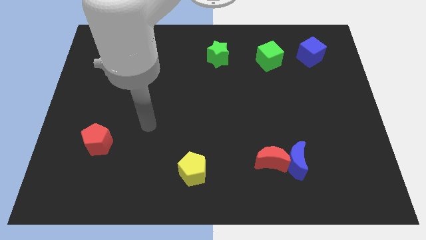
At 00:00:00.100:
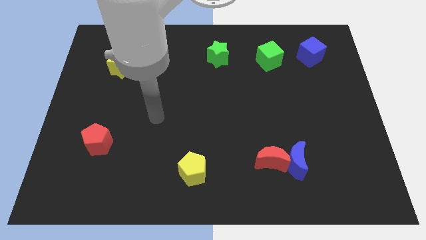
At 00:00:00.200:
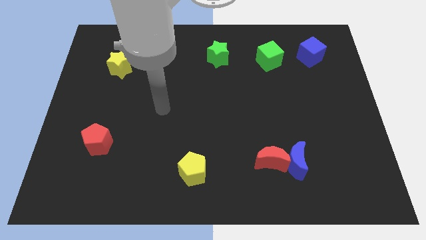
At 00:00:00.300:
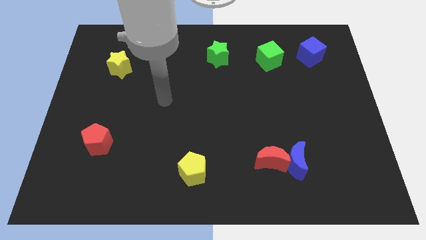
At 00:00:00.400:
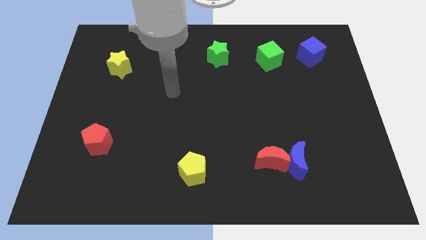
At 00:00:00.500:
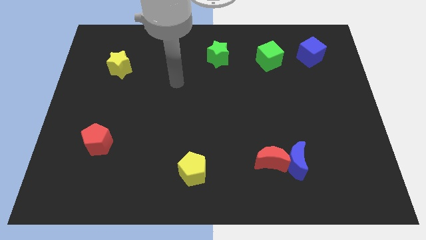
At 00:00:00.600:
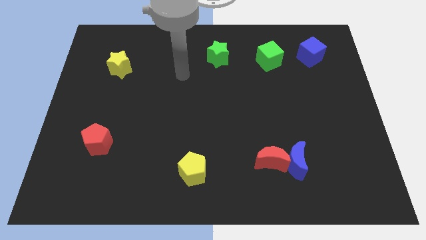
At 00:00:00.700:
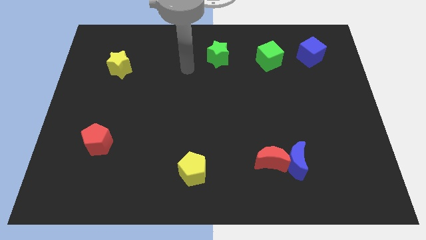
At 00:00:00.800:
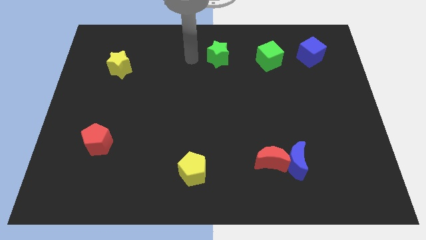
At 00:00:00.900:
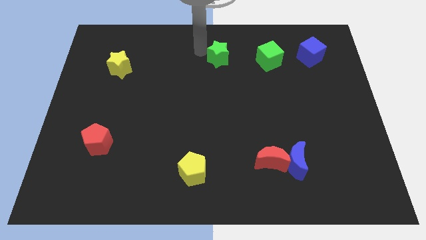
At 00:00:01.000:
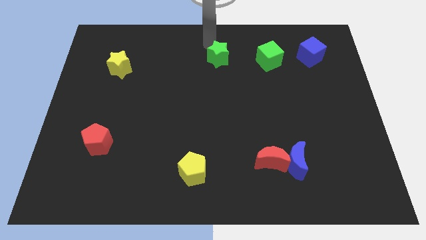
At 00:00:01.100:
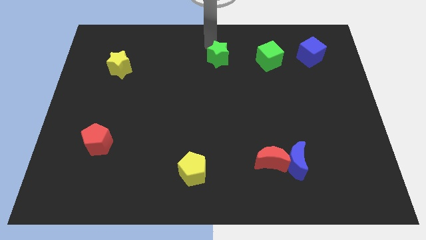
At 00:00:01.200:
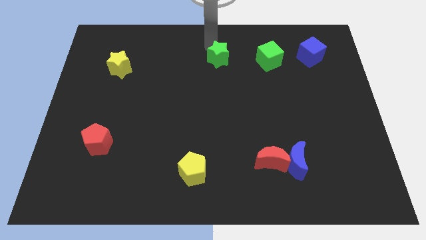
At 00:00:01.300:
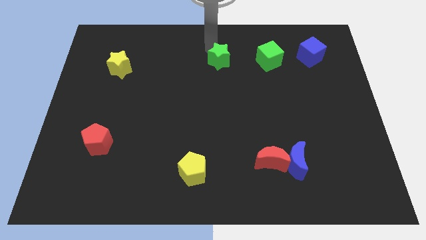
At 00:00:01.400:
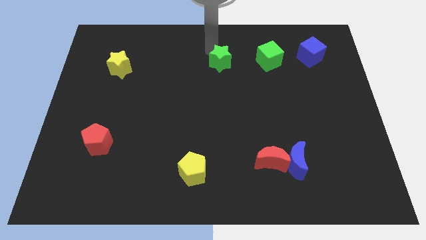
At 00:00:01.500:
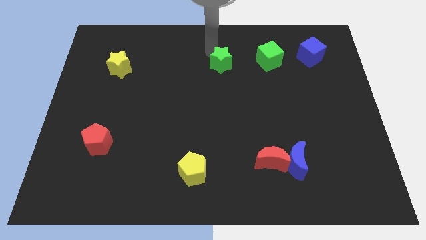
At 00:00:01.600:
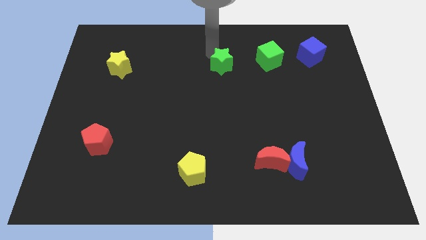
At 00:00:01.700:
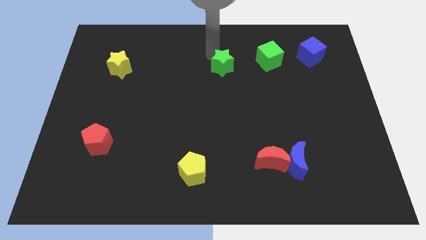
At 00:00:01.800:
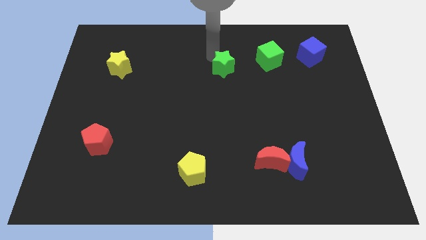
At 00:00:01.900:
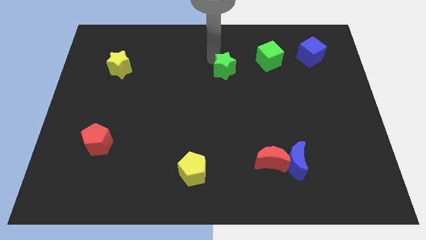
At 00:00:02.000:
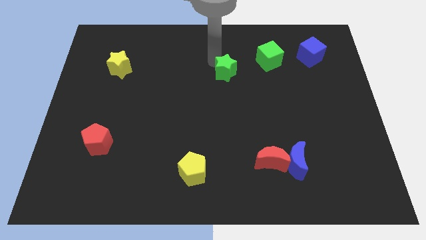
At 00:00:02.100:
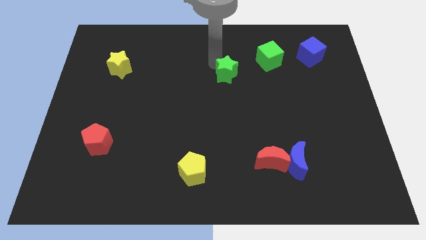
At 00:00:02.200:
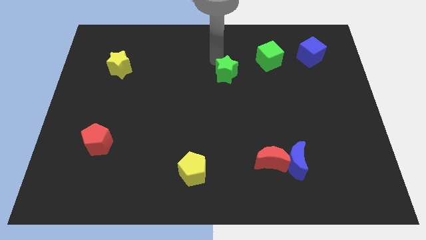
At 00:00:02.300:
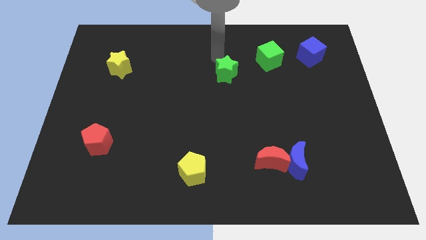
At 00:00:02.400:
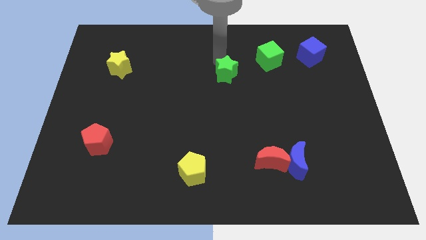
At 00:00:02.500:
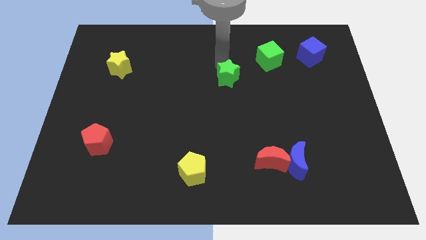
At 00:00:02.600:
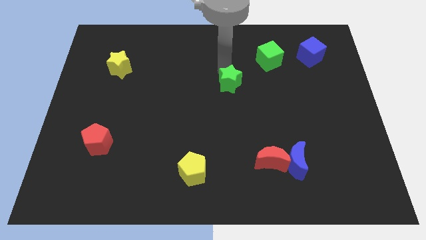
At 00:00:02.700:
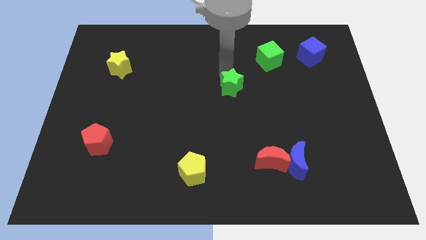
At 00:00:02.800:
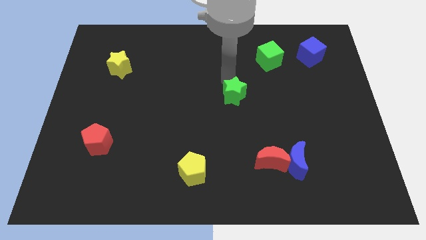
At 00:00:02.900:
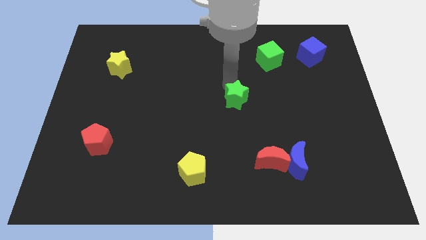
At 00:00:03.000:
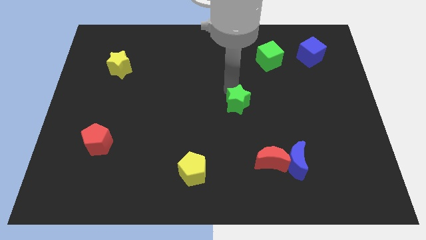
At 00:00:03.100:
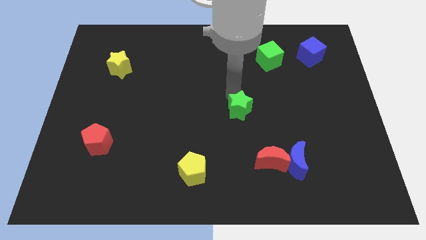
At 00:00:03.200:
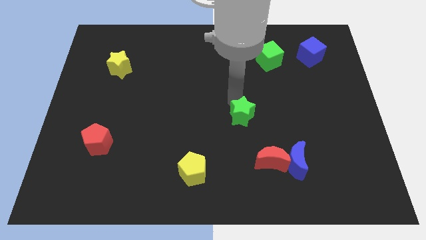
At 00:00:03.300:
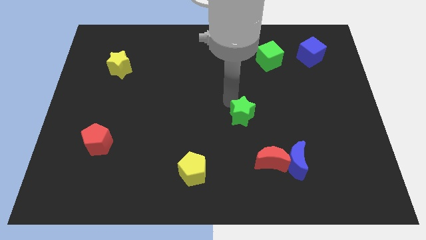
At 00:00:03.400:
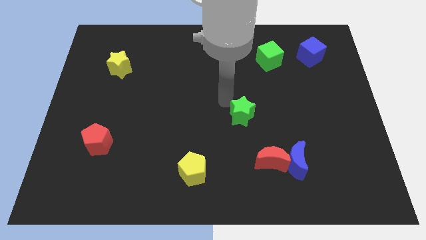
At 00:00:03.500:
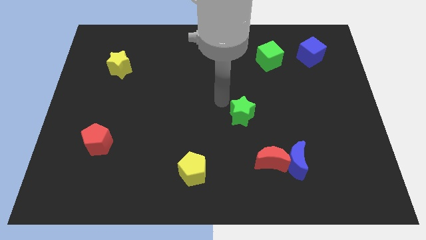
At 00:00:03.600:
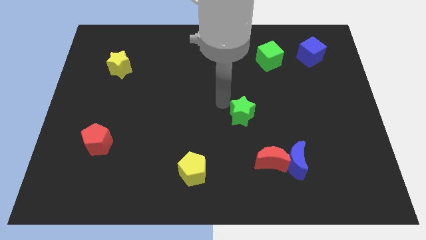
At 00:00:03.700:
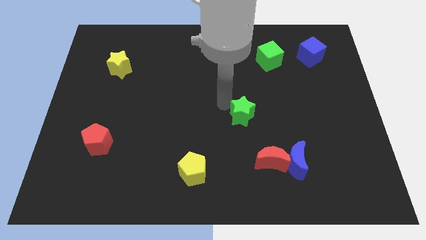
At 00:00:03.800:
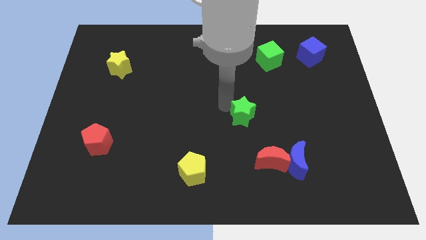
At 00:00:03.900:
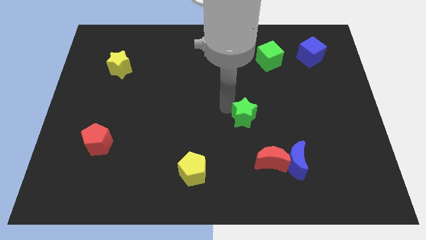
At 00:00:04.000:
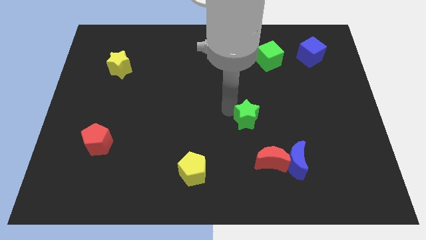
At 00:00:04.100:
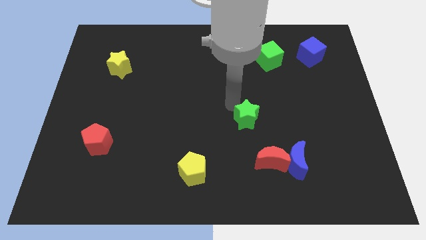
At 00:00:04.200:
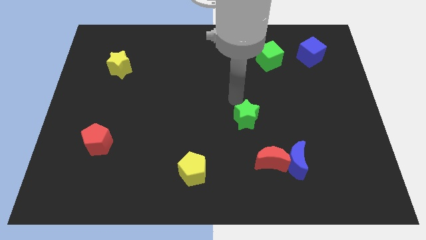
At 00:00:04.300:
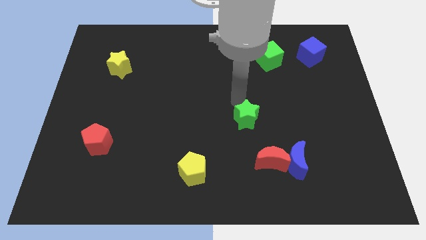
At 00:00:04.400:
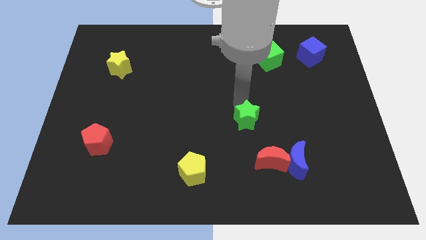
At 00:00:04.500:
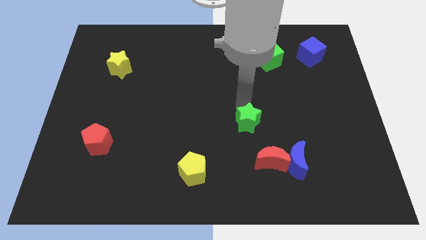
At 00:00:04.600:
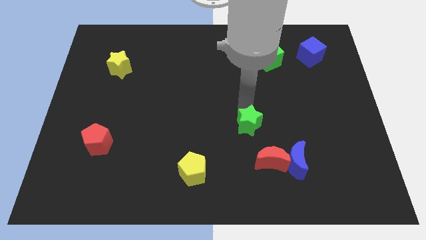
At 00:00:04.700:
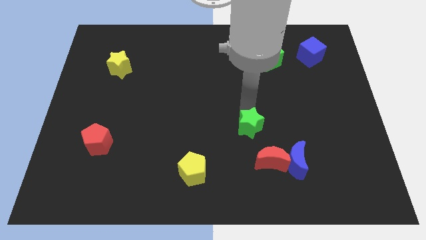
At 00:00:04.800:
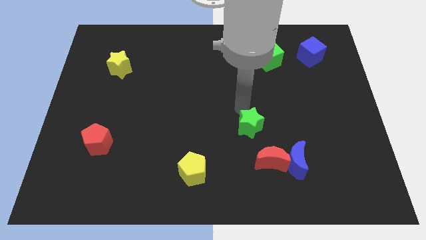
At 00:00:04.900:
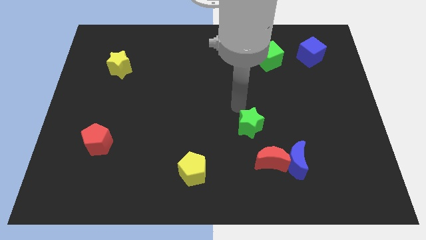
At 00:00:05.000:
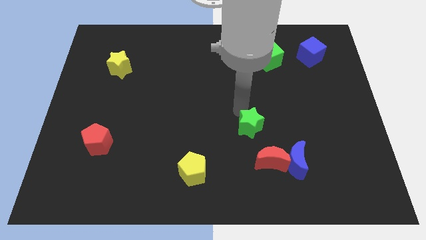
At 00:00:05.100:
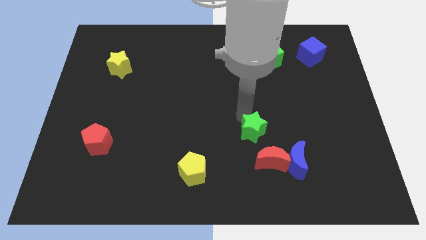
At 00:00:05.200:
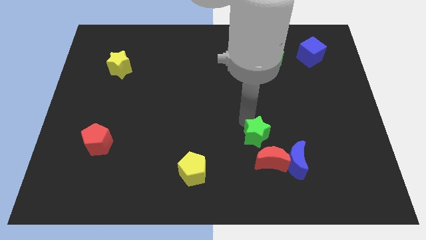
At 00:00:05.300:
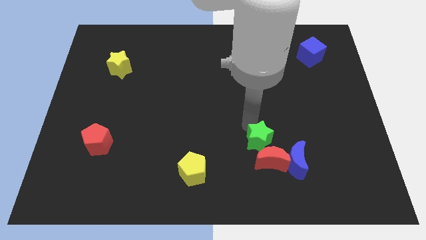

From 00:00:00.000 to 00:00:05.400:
push the green star next to the red moon

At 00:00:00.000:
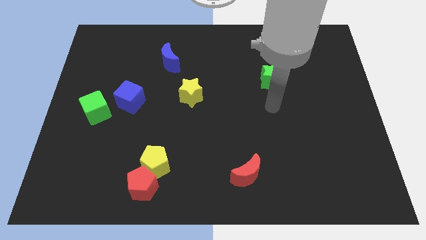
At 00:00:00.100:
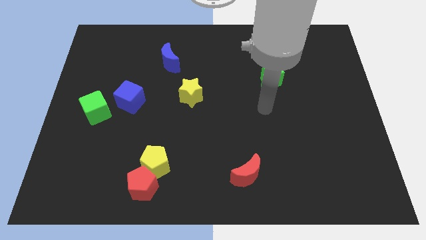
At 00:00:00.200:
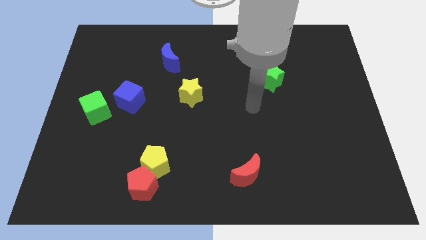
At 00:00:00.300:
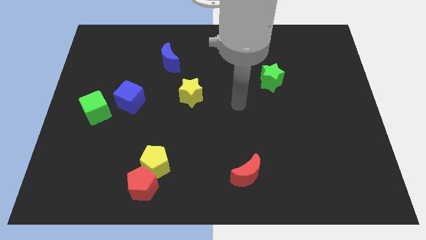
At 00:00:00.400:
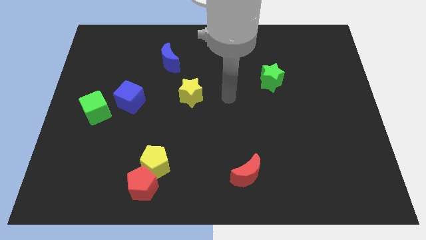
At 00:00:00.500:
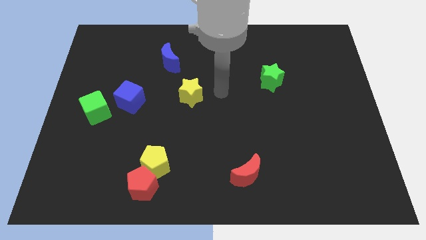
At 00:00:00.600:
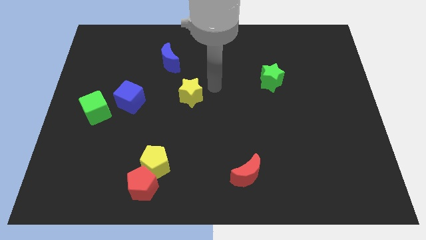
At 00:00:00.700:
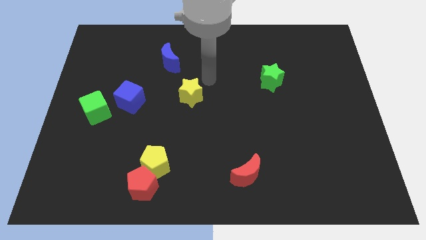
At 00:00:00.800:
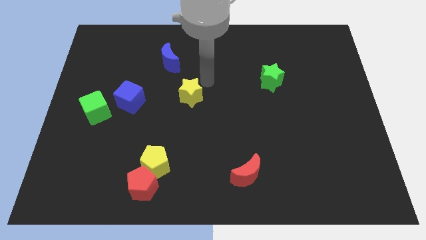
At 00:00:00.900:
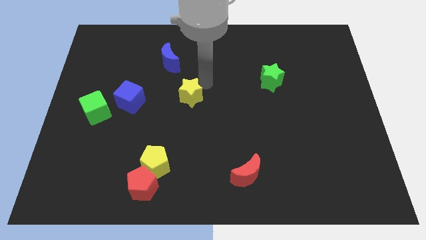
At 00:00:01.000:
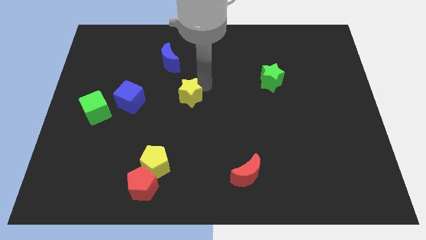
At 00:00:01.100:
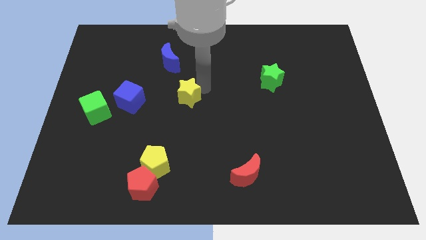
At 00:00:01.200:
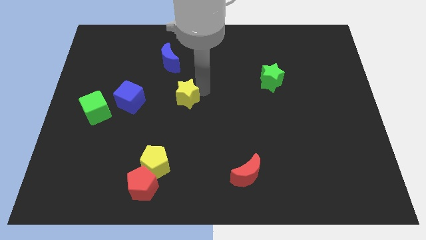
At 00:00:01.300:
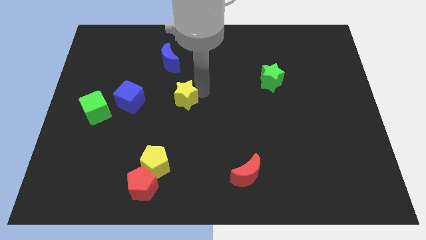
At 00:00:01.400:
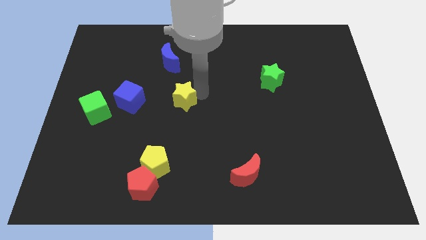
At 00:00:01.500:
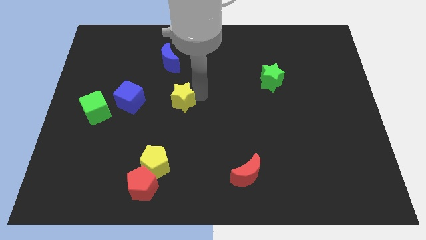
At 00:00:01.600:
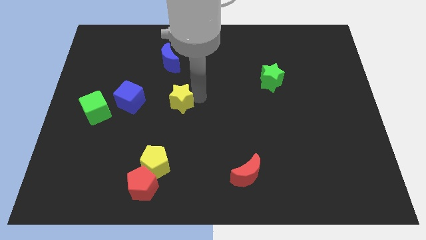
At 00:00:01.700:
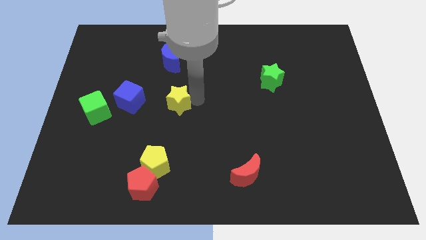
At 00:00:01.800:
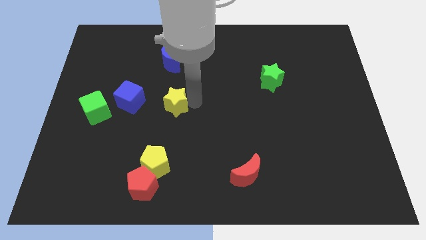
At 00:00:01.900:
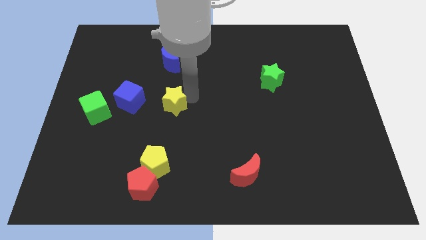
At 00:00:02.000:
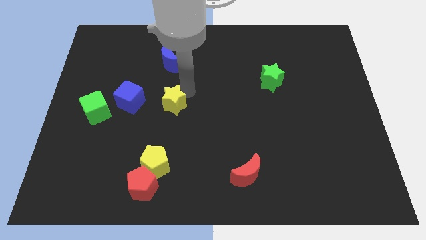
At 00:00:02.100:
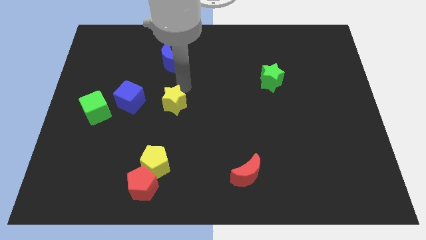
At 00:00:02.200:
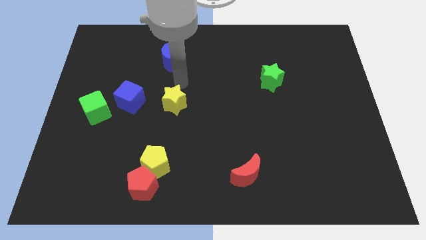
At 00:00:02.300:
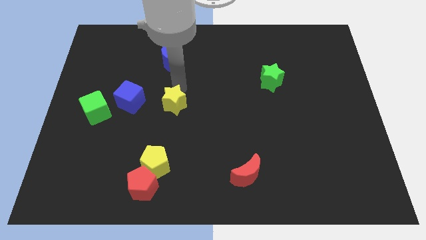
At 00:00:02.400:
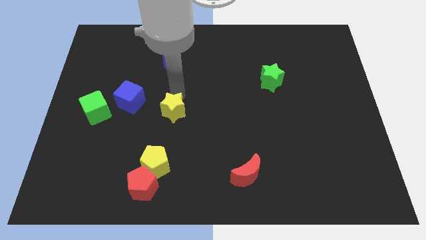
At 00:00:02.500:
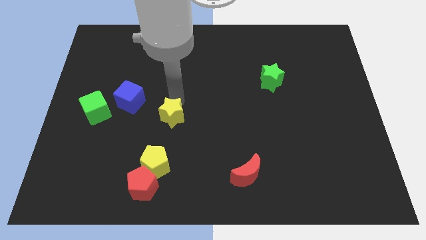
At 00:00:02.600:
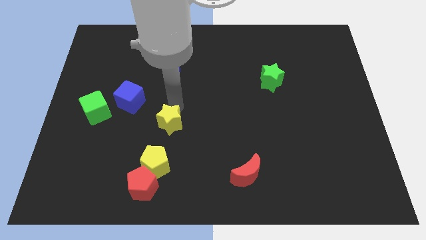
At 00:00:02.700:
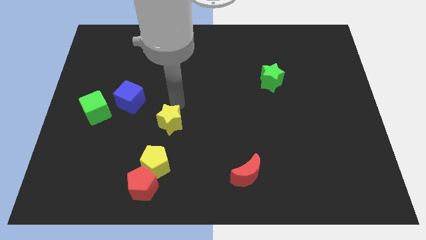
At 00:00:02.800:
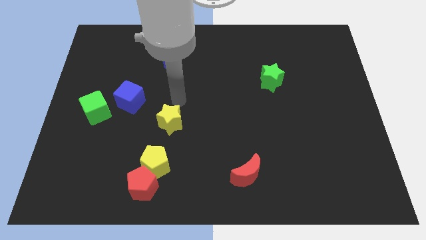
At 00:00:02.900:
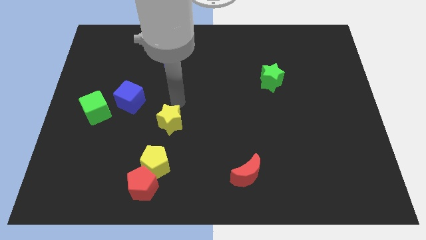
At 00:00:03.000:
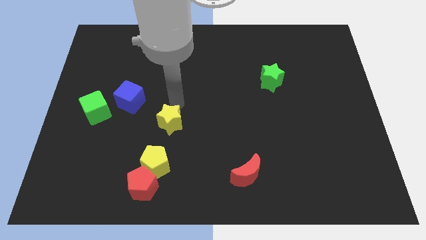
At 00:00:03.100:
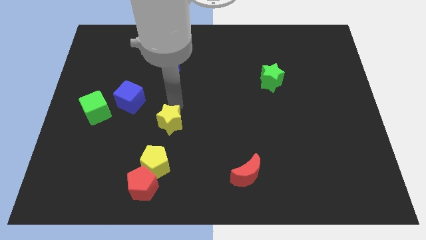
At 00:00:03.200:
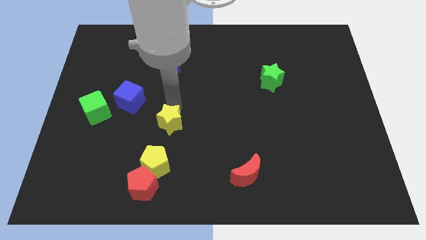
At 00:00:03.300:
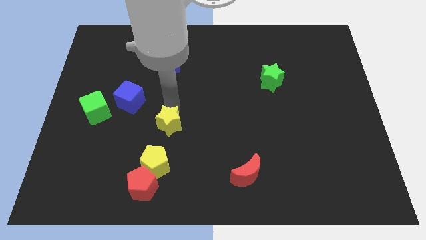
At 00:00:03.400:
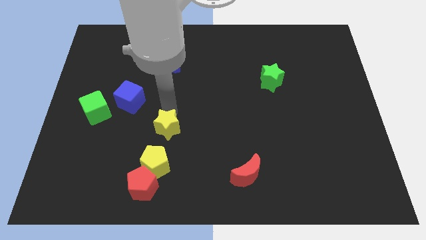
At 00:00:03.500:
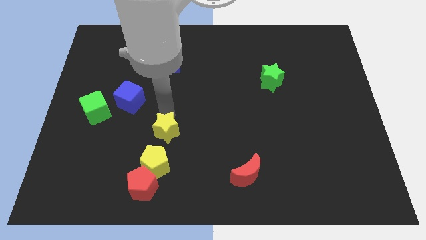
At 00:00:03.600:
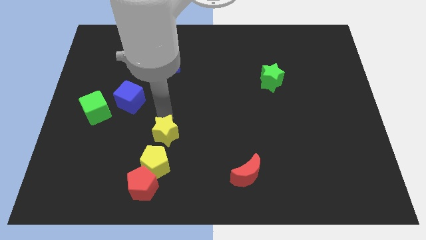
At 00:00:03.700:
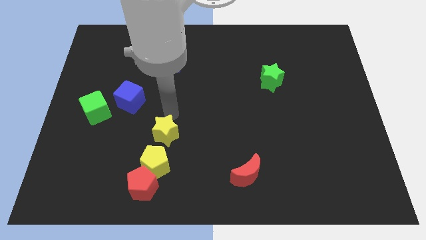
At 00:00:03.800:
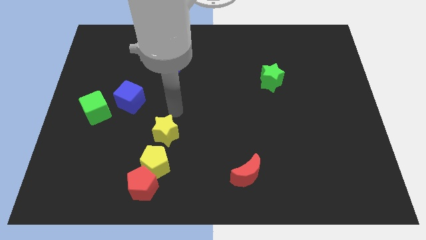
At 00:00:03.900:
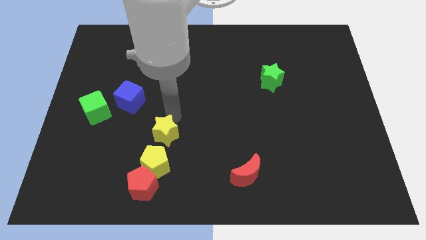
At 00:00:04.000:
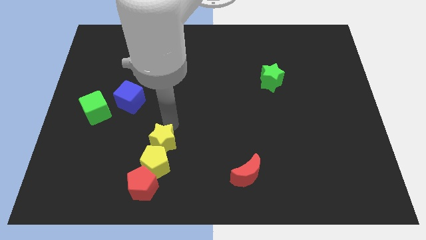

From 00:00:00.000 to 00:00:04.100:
move the yellow star close to the yellow pentagon
